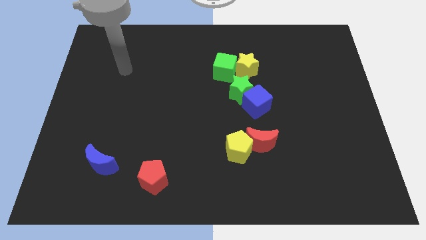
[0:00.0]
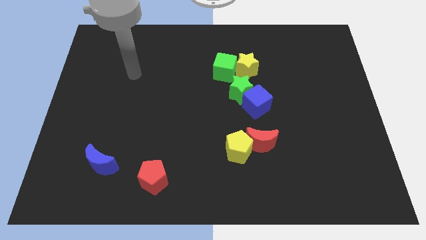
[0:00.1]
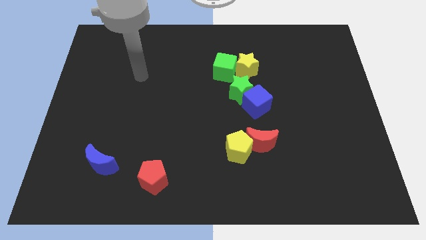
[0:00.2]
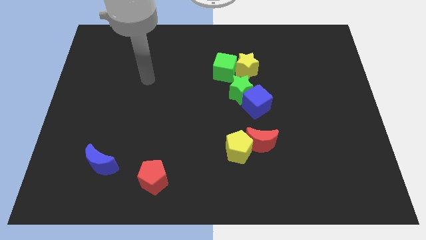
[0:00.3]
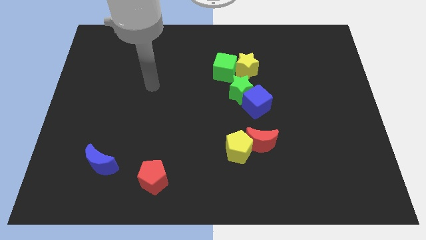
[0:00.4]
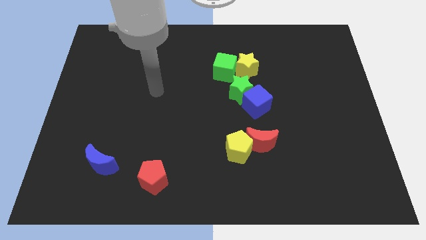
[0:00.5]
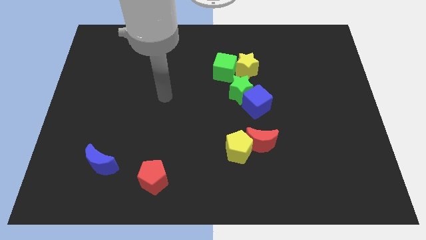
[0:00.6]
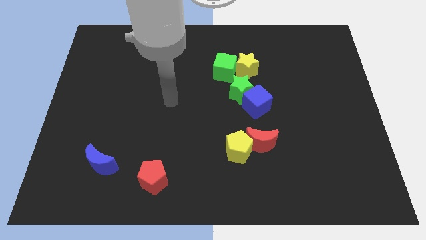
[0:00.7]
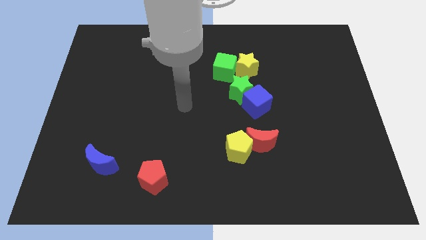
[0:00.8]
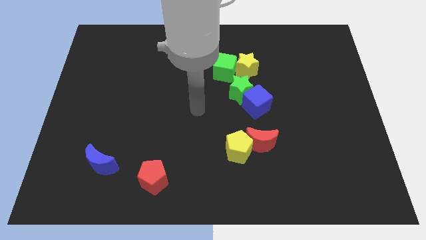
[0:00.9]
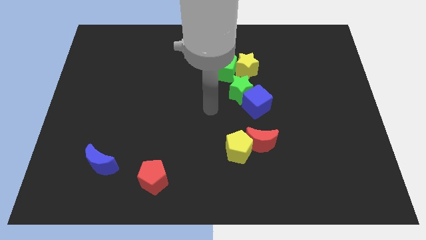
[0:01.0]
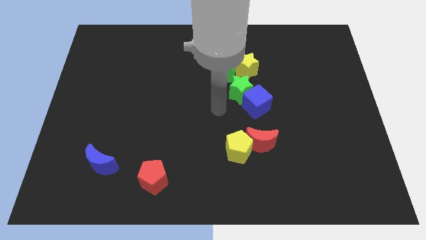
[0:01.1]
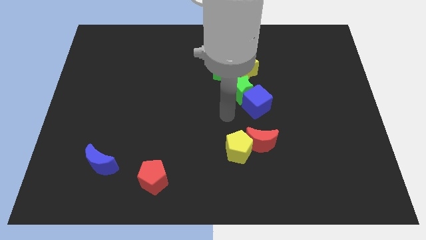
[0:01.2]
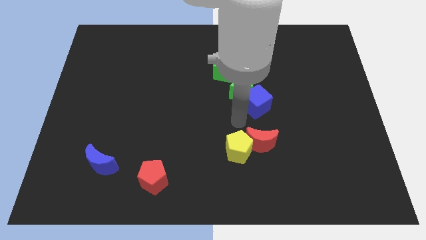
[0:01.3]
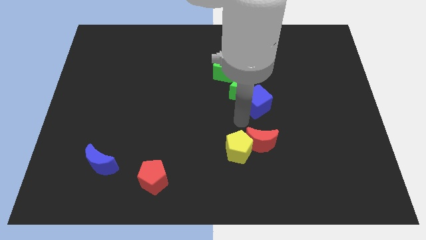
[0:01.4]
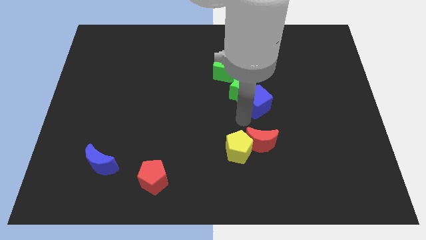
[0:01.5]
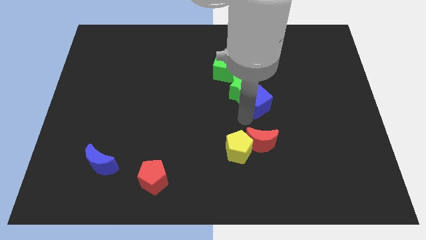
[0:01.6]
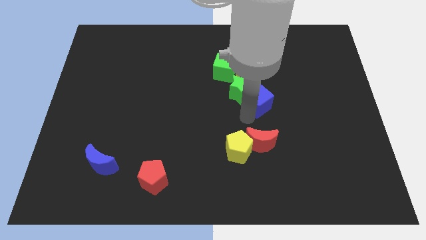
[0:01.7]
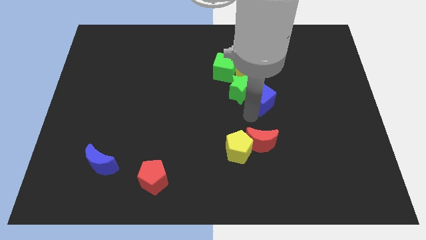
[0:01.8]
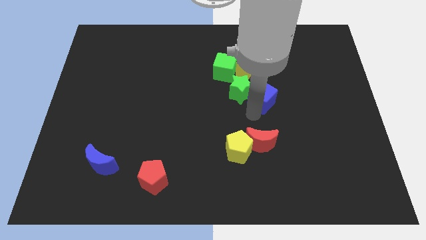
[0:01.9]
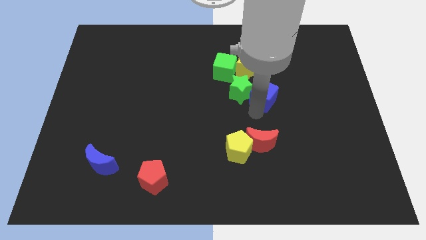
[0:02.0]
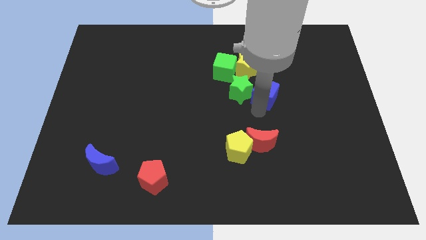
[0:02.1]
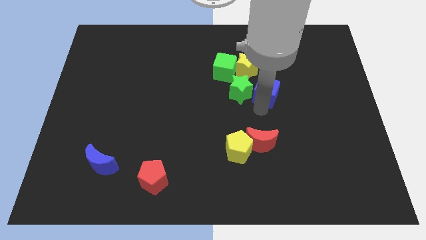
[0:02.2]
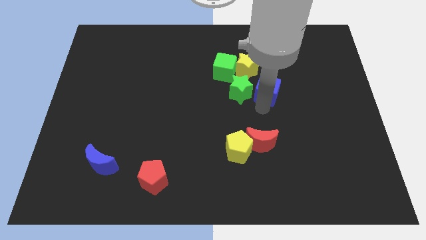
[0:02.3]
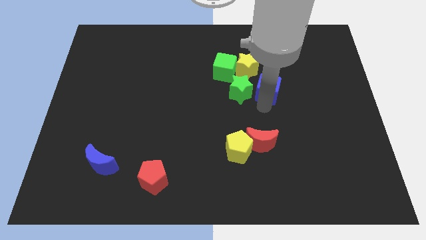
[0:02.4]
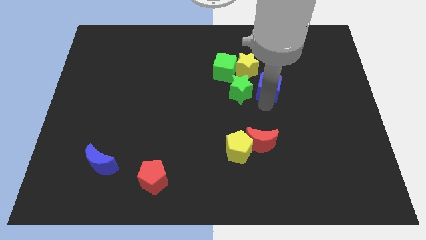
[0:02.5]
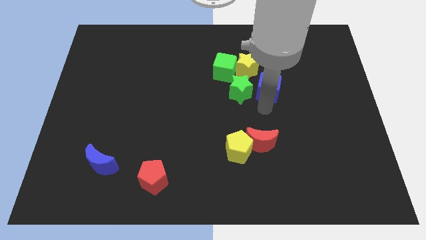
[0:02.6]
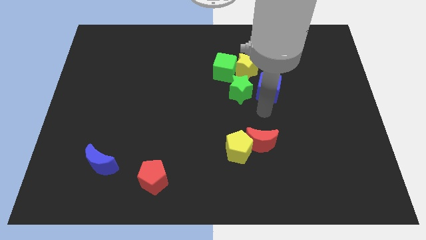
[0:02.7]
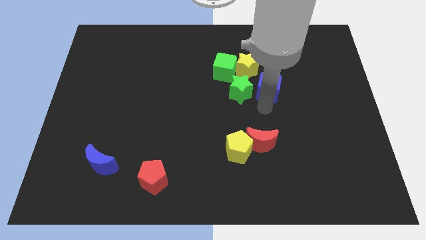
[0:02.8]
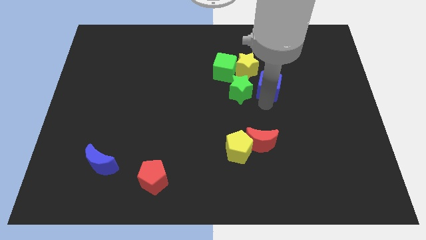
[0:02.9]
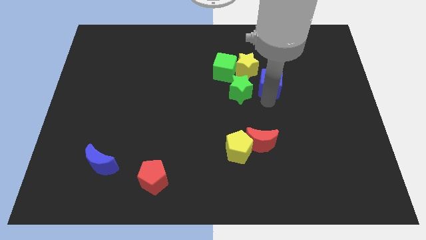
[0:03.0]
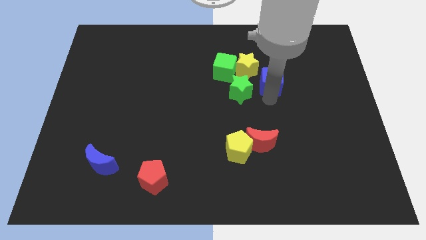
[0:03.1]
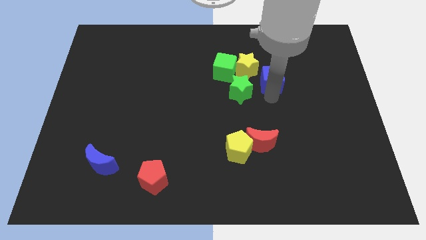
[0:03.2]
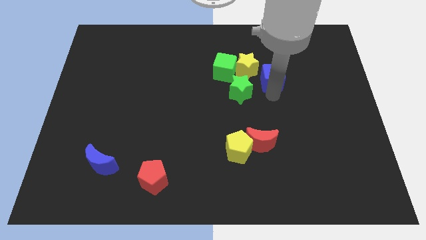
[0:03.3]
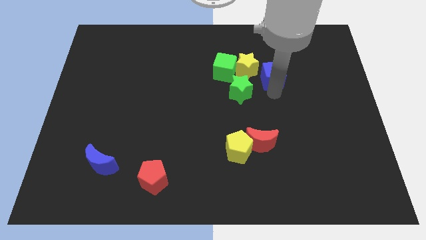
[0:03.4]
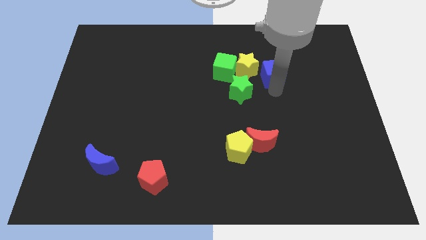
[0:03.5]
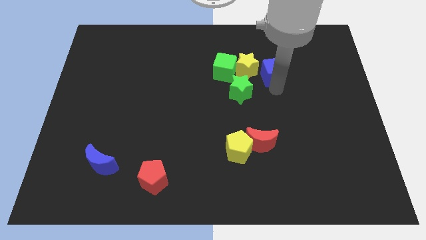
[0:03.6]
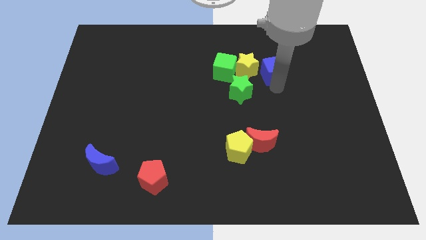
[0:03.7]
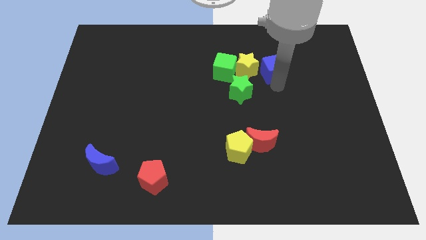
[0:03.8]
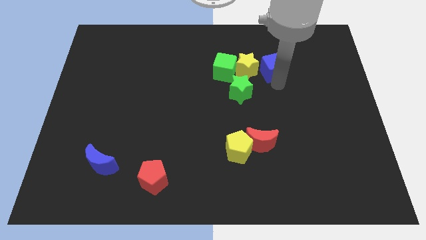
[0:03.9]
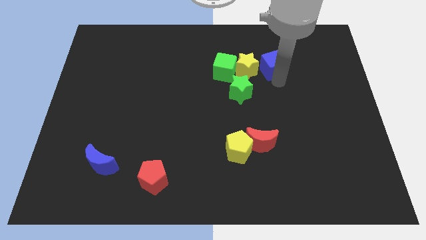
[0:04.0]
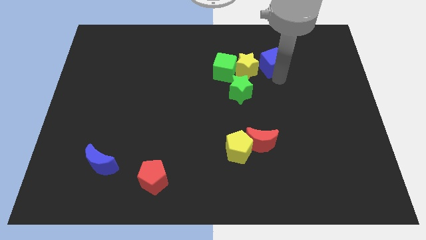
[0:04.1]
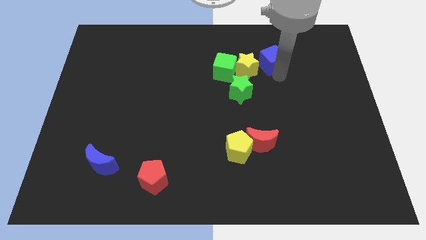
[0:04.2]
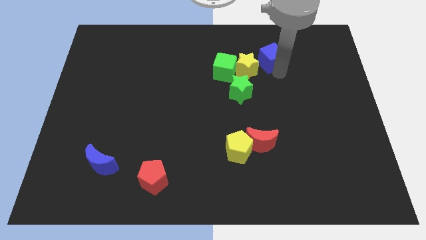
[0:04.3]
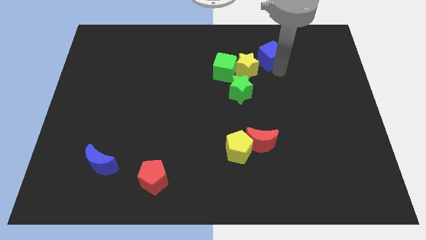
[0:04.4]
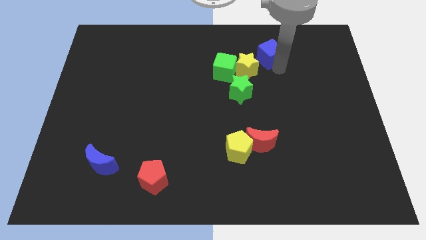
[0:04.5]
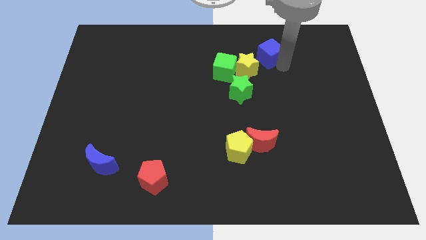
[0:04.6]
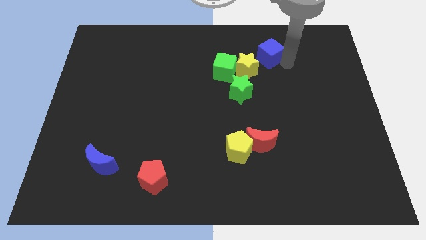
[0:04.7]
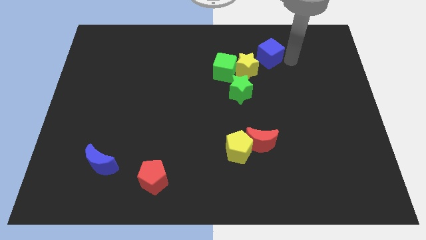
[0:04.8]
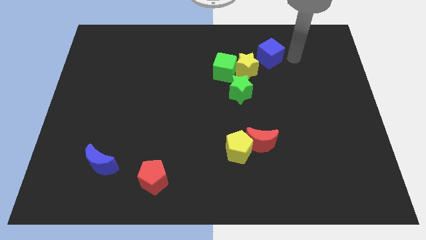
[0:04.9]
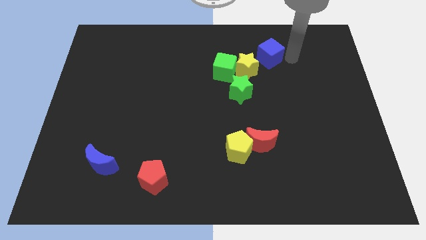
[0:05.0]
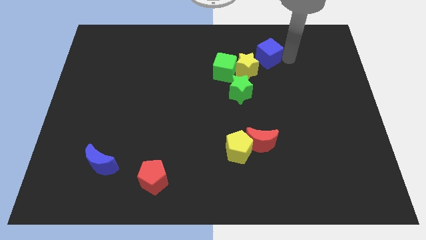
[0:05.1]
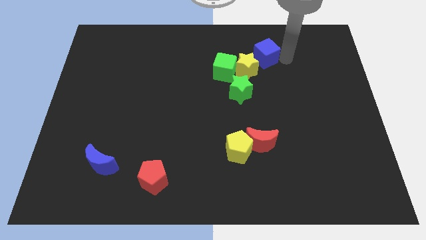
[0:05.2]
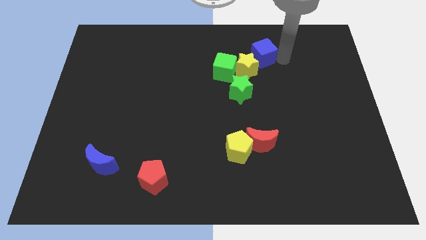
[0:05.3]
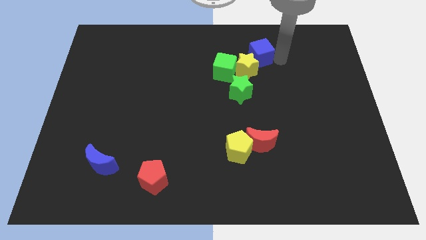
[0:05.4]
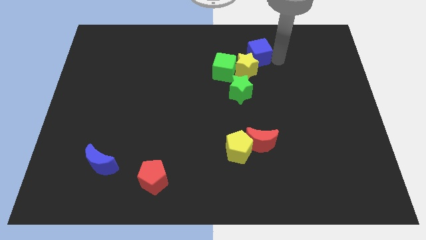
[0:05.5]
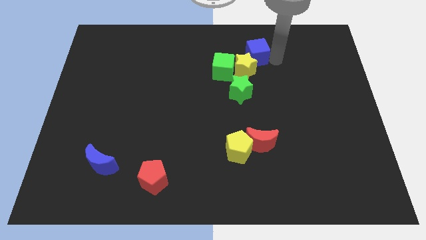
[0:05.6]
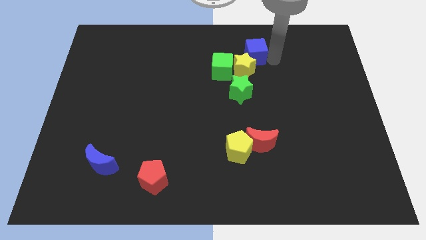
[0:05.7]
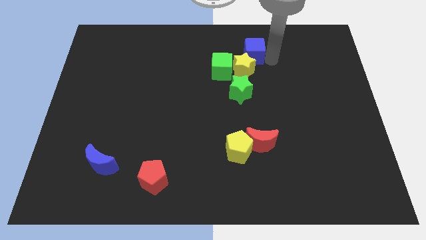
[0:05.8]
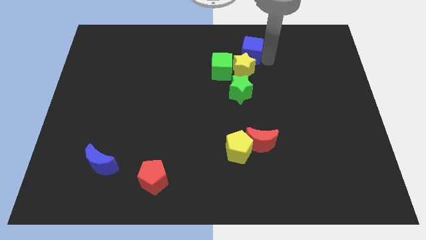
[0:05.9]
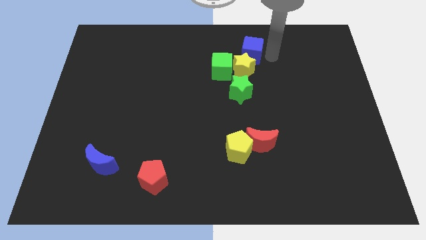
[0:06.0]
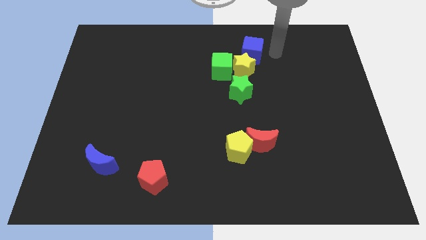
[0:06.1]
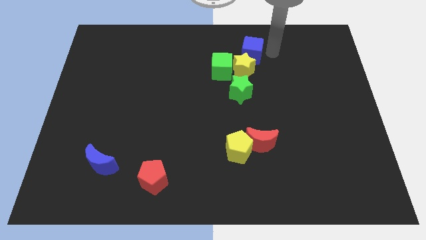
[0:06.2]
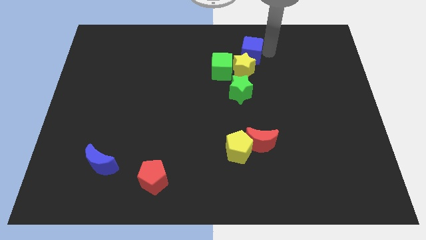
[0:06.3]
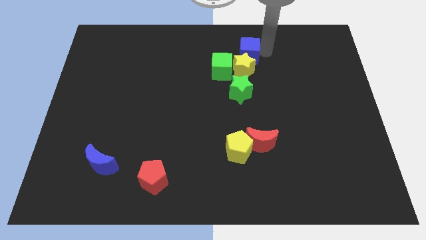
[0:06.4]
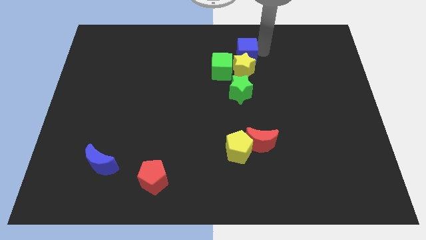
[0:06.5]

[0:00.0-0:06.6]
push the blue cube to the top left side of the yellow star
